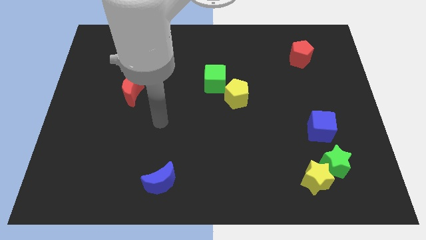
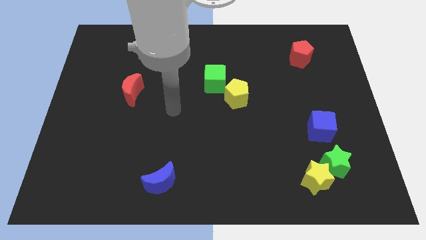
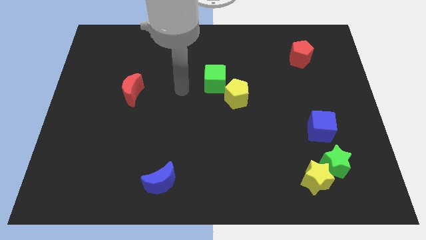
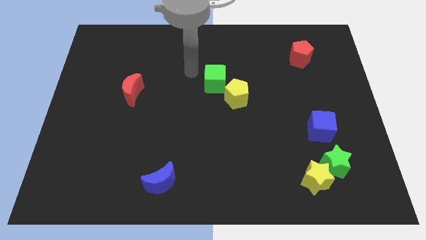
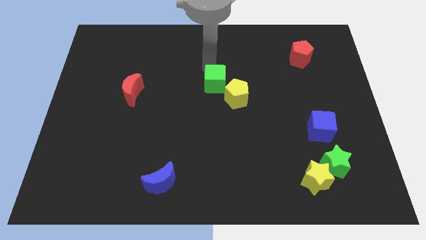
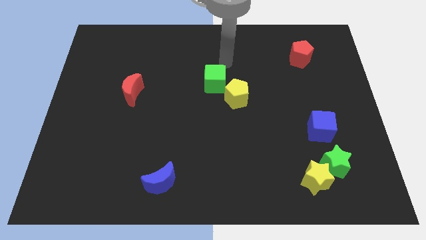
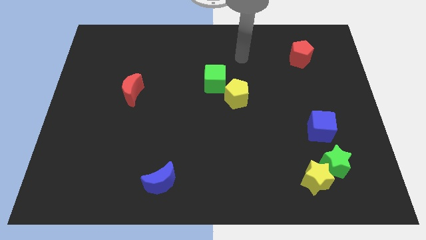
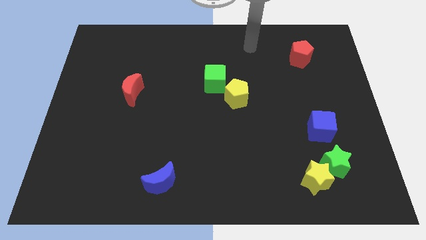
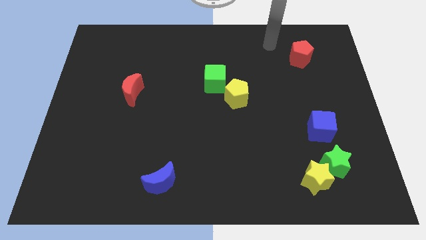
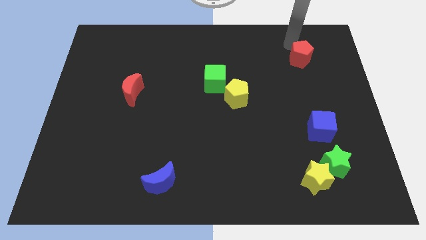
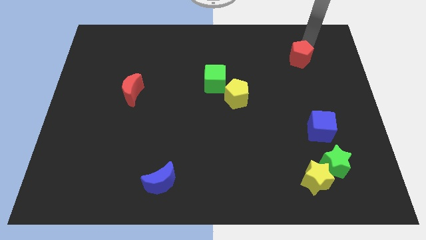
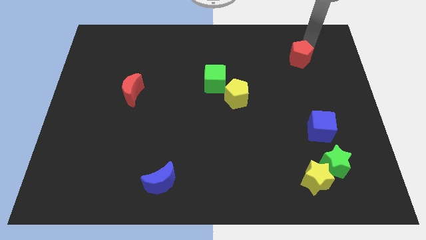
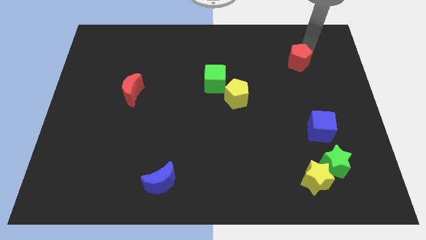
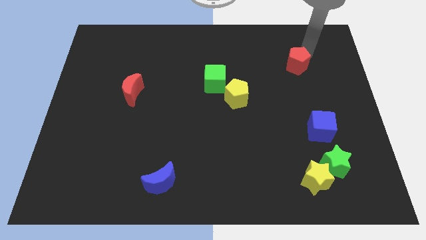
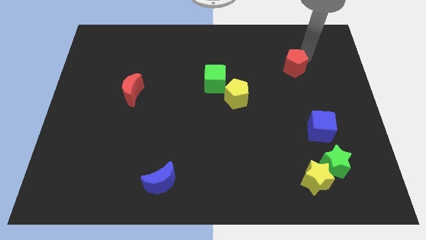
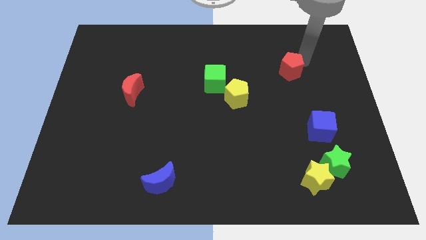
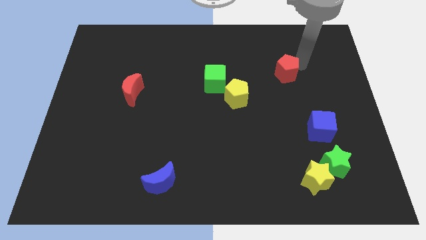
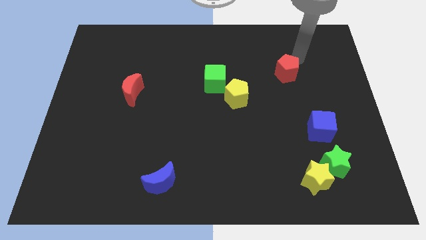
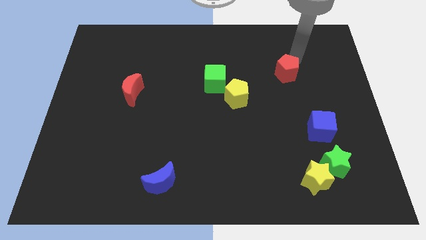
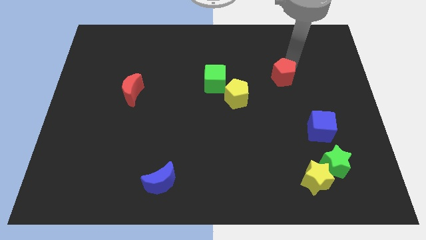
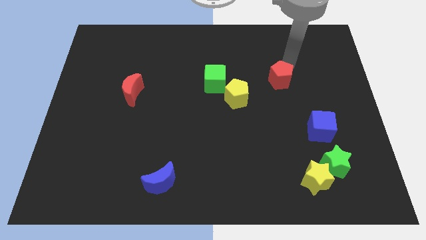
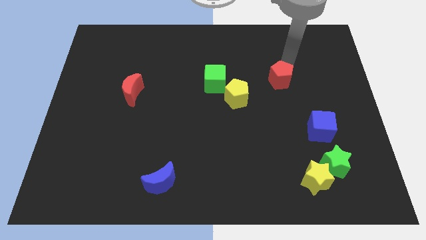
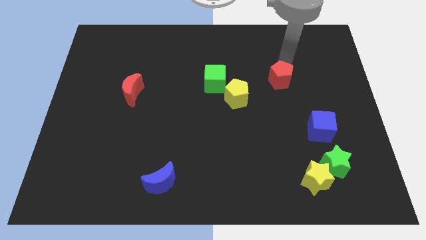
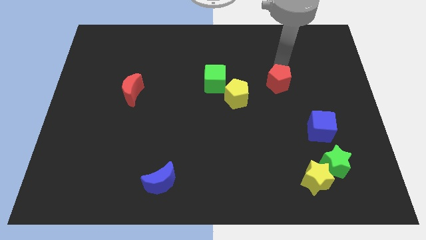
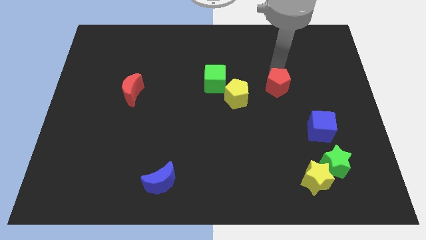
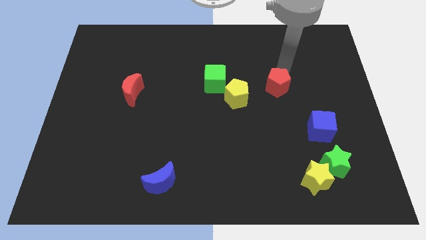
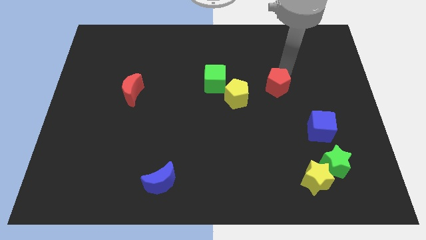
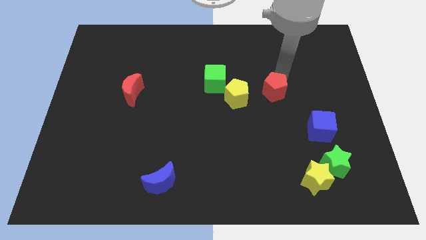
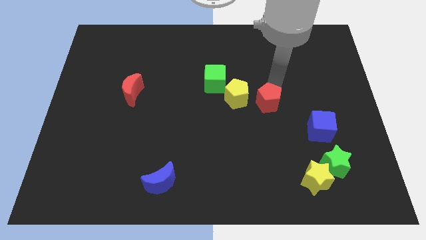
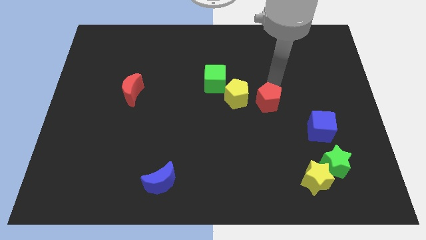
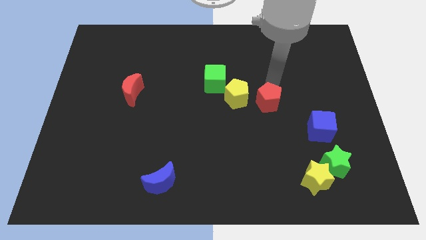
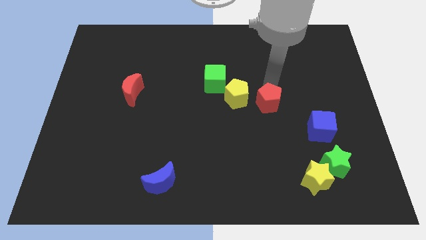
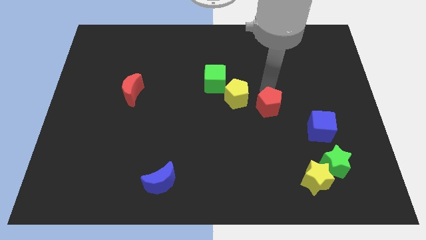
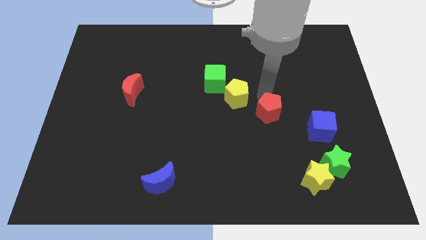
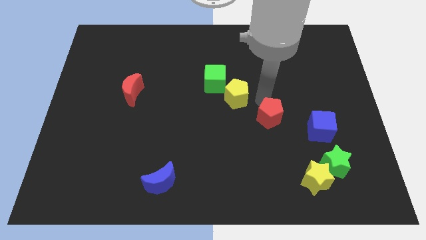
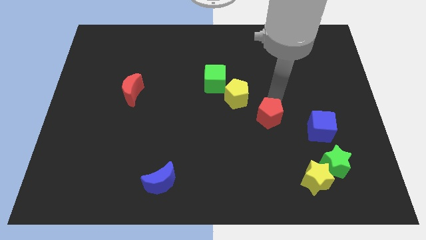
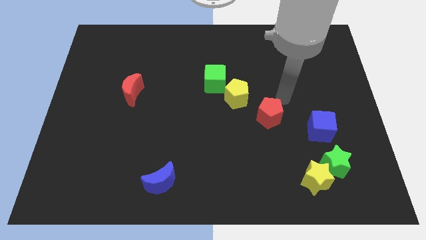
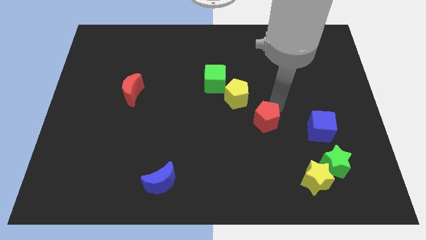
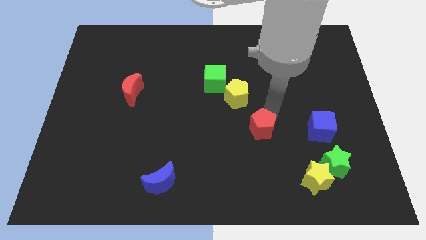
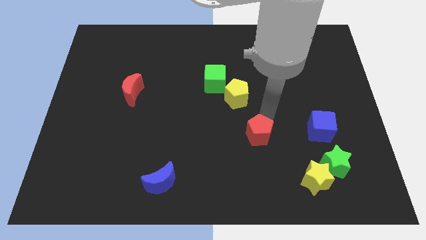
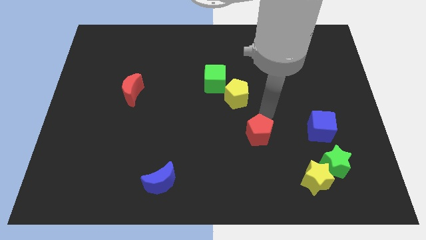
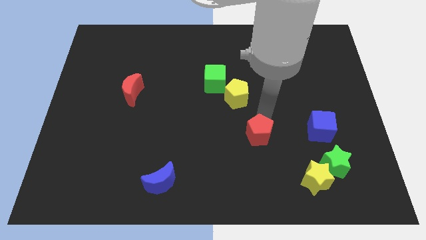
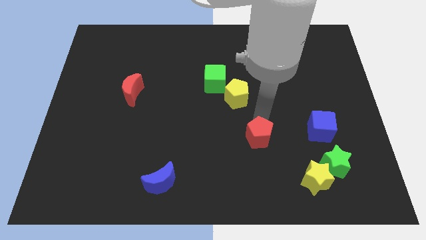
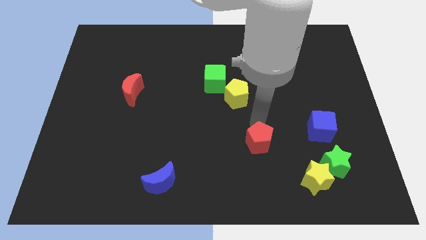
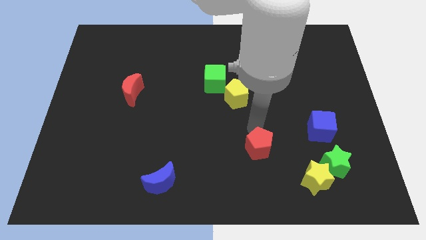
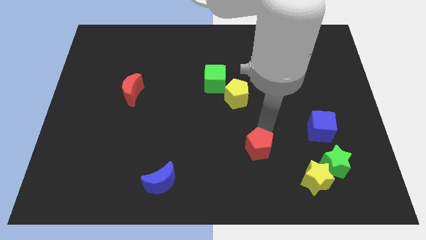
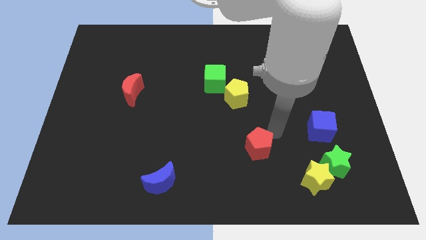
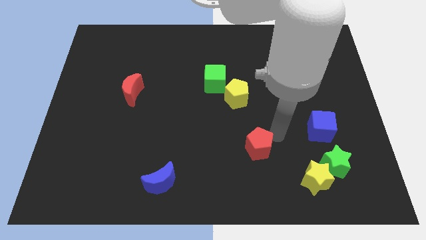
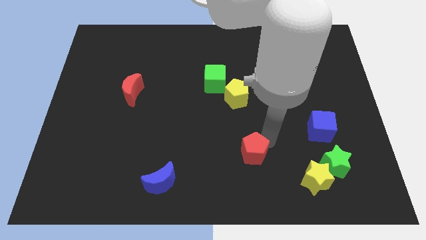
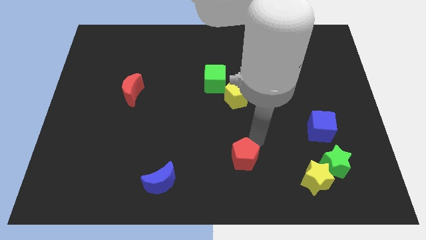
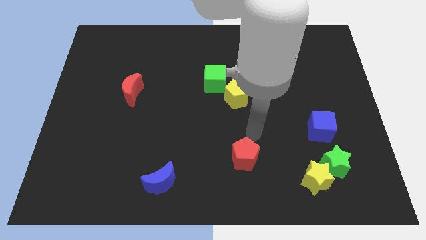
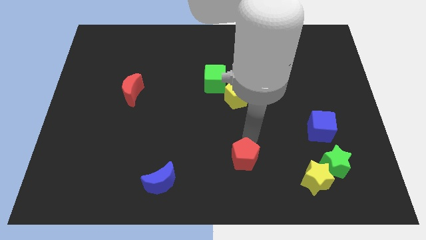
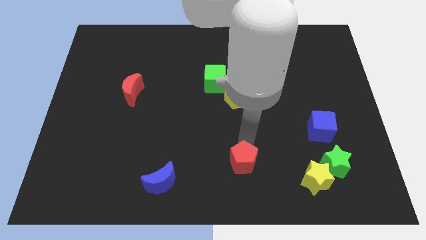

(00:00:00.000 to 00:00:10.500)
push the red pentagon to the bottom

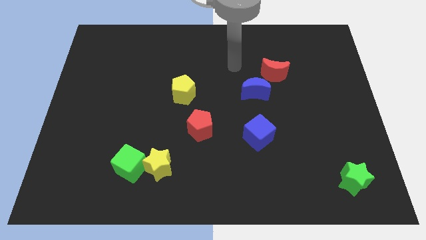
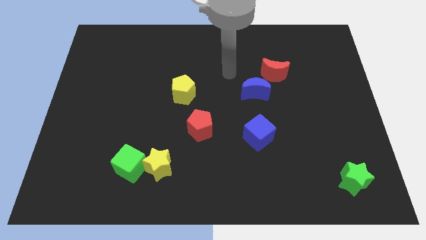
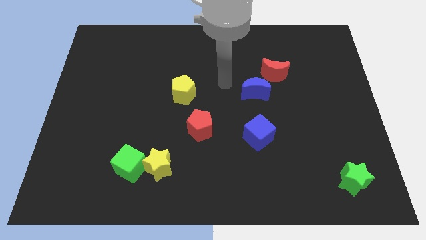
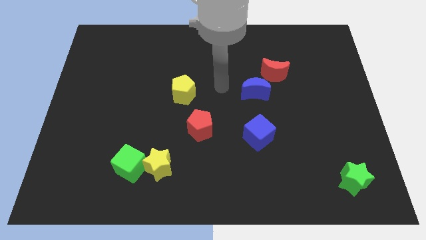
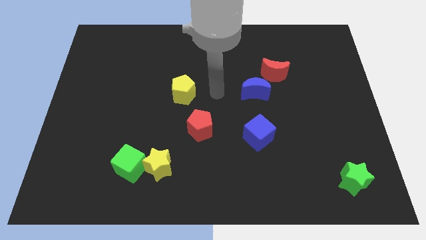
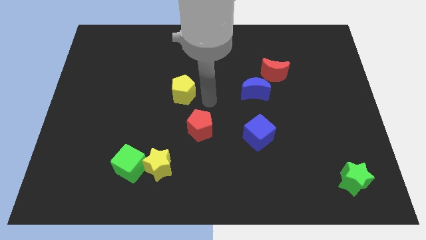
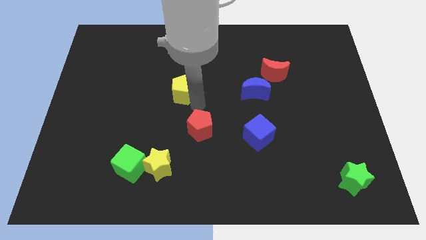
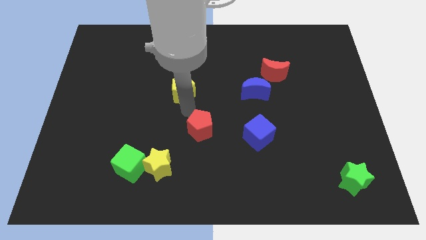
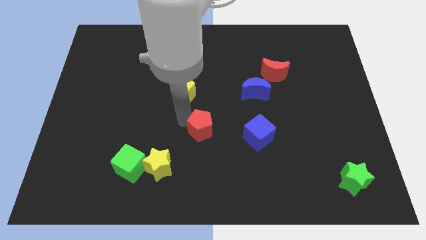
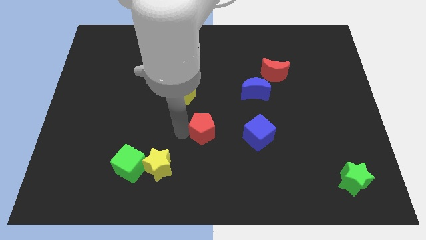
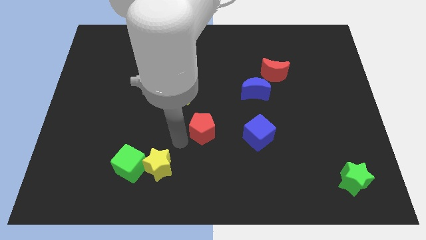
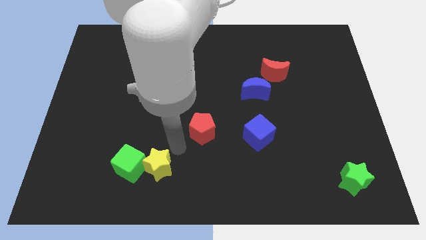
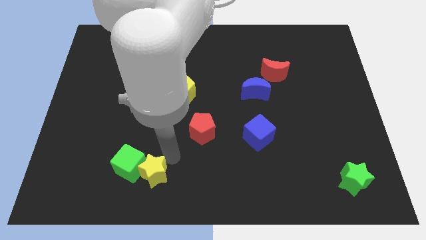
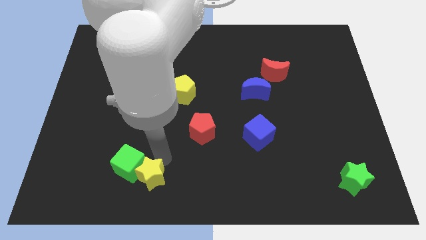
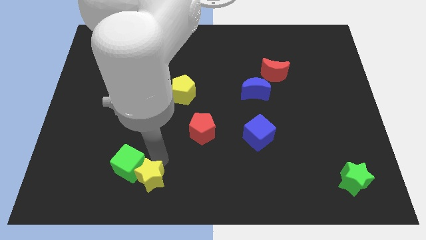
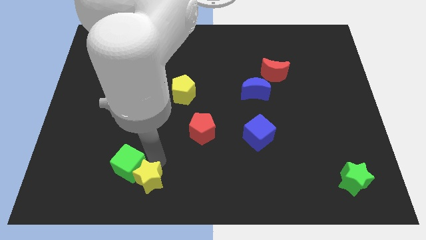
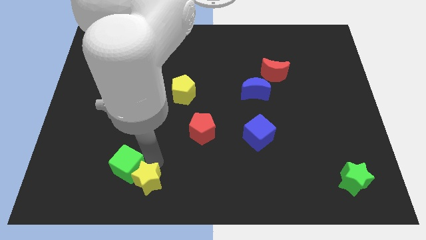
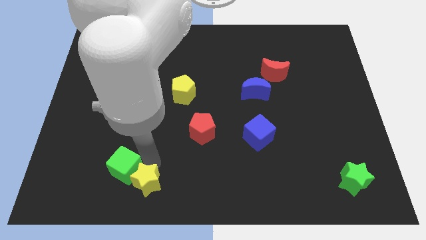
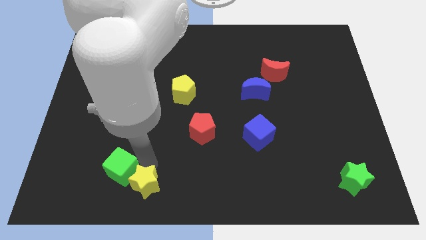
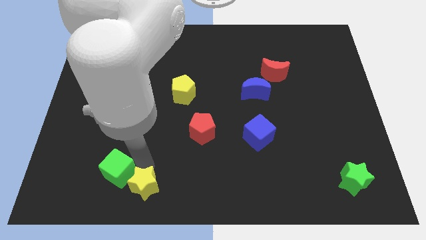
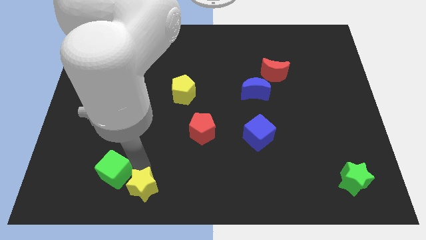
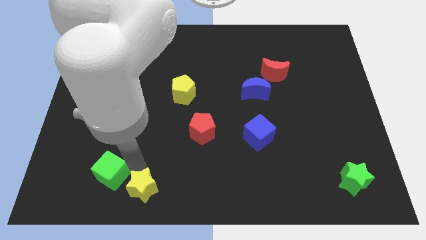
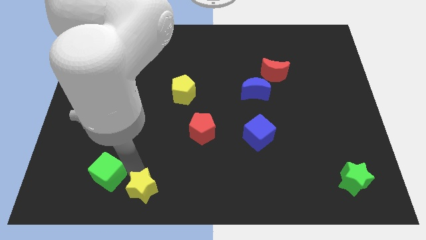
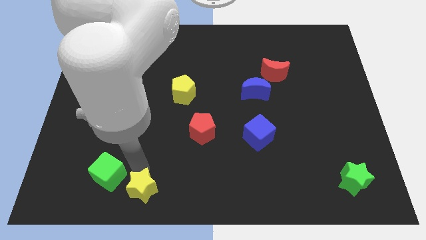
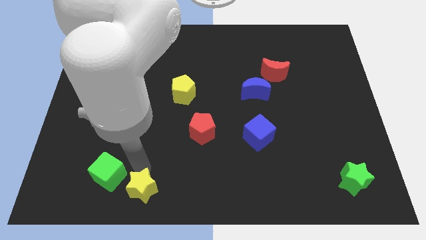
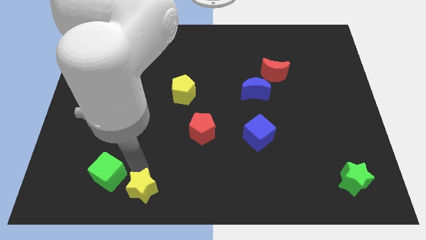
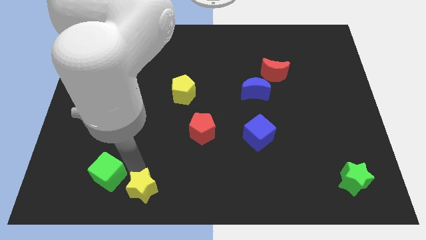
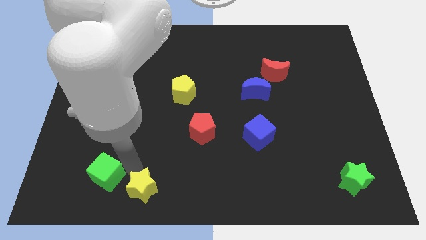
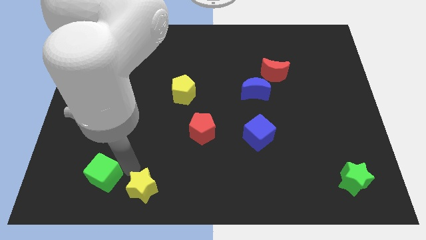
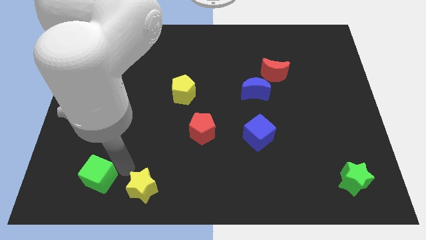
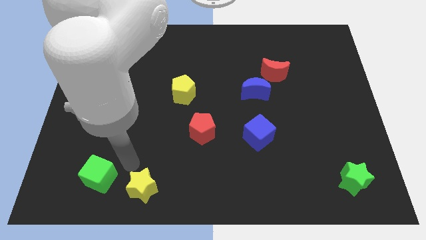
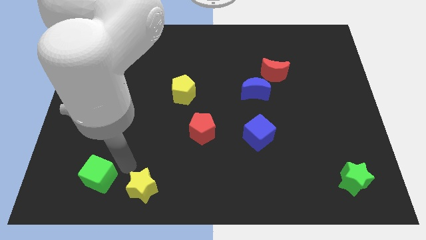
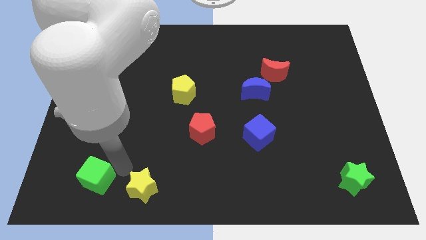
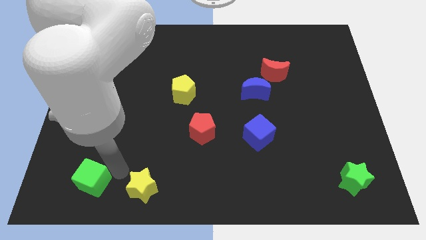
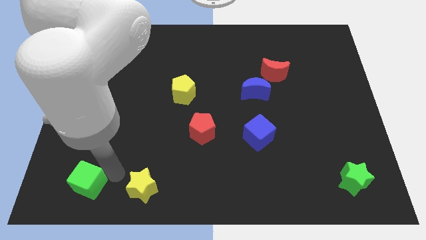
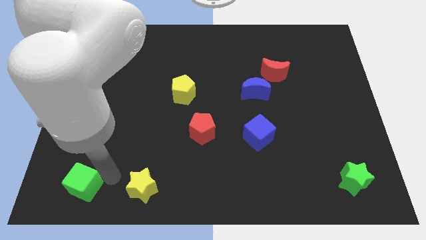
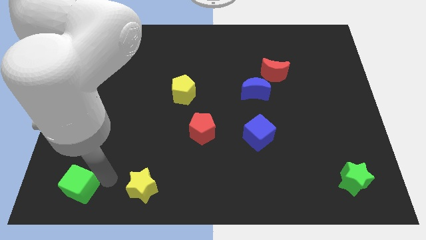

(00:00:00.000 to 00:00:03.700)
push the green cube to the bottom left corner
